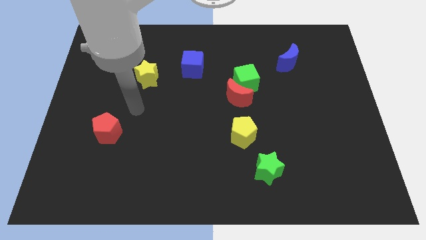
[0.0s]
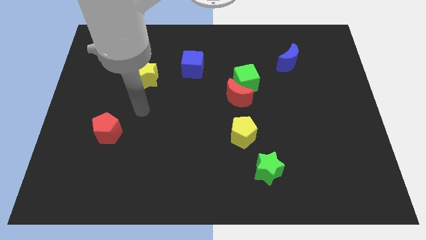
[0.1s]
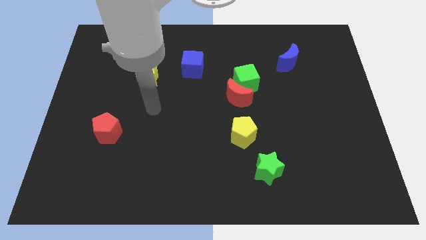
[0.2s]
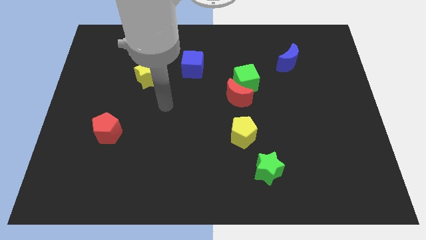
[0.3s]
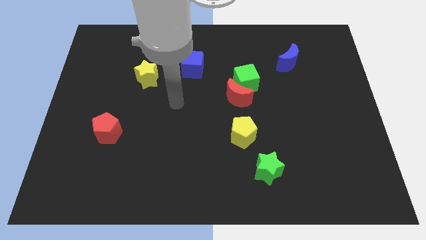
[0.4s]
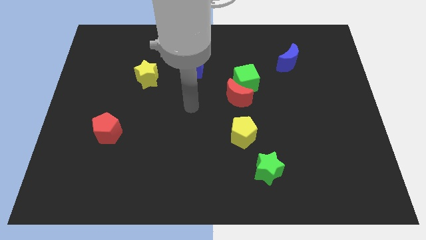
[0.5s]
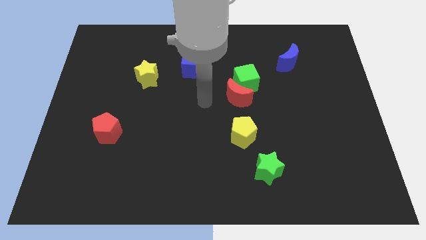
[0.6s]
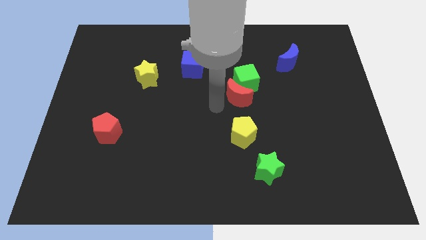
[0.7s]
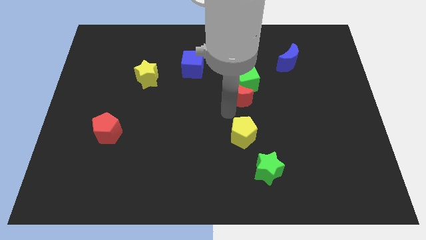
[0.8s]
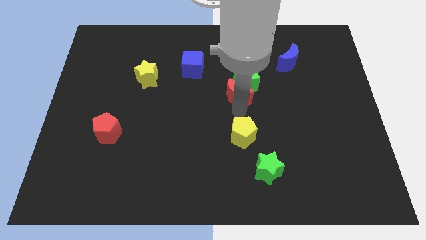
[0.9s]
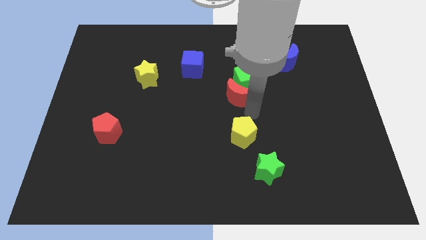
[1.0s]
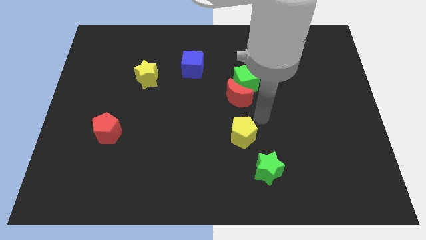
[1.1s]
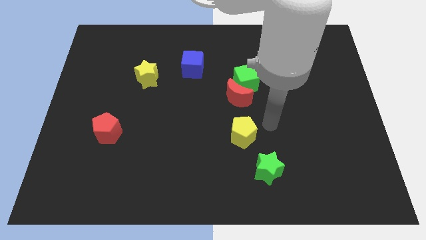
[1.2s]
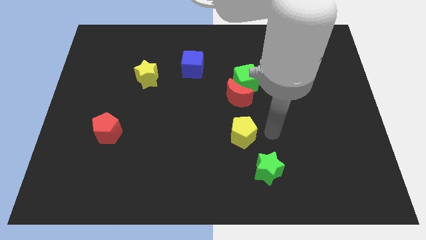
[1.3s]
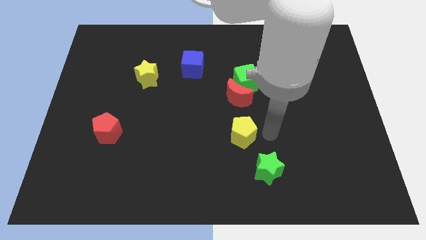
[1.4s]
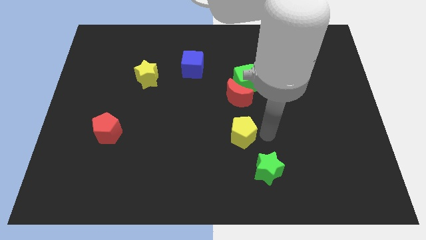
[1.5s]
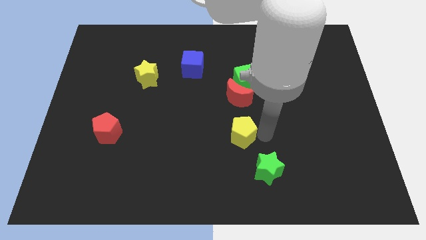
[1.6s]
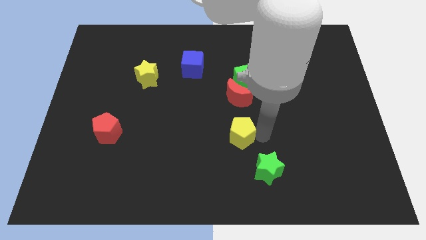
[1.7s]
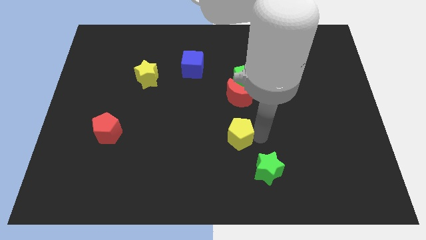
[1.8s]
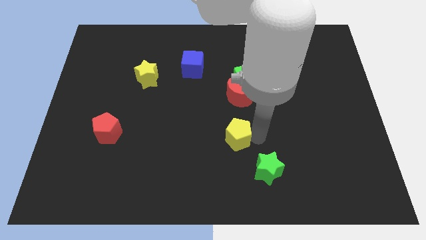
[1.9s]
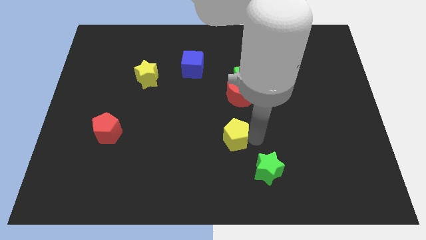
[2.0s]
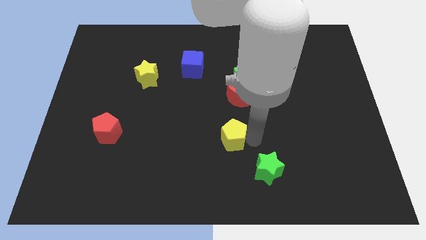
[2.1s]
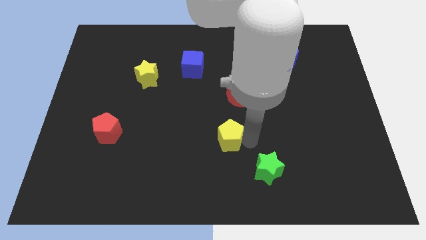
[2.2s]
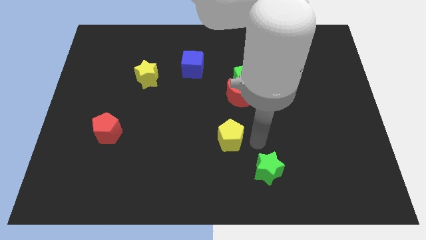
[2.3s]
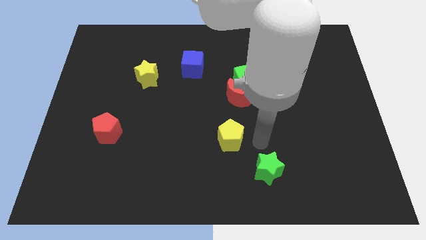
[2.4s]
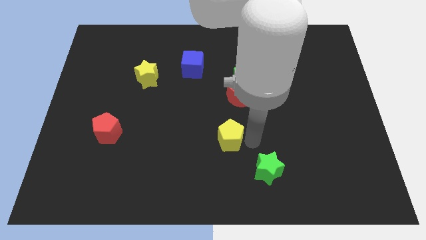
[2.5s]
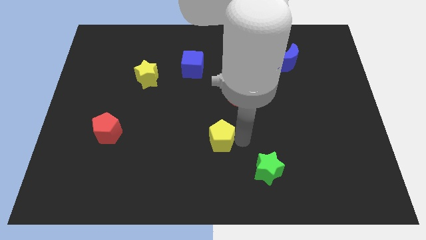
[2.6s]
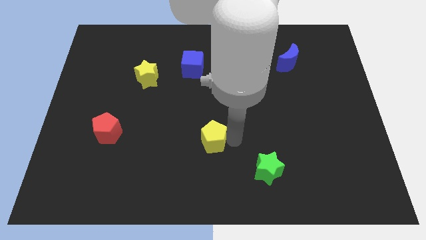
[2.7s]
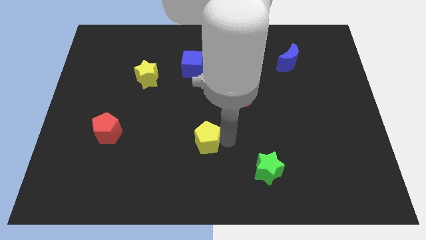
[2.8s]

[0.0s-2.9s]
slightly move the yellow pentagon left

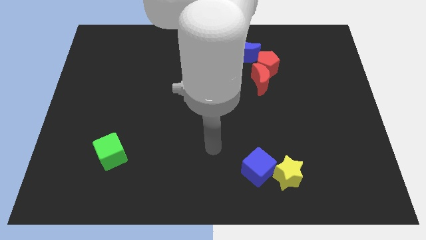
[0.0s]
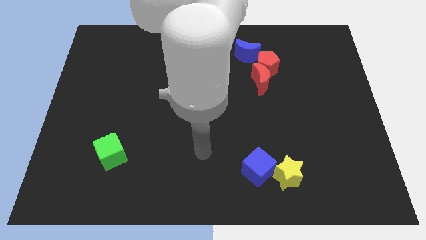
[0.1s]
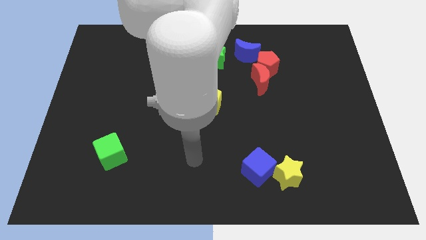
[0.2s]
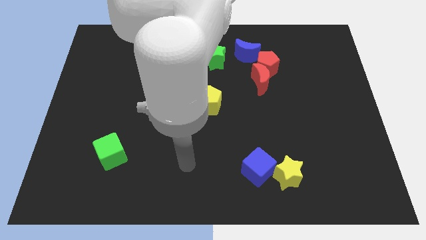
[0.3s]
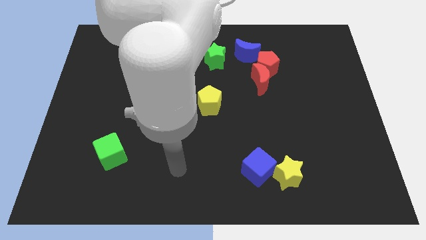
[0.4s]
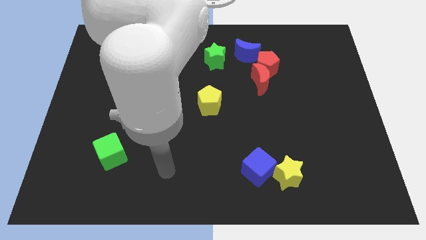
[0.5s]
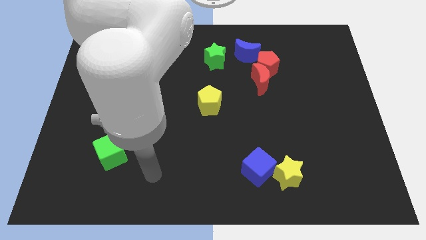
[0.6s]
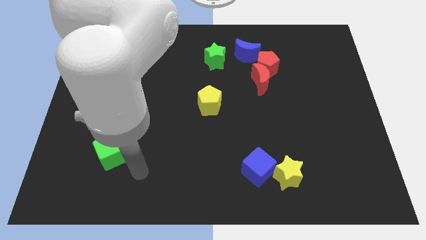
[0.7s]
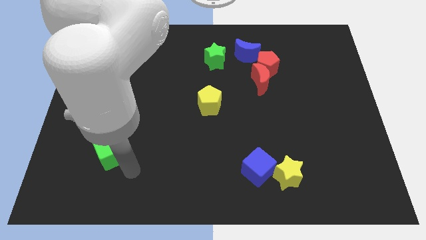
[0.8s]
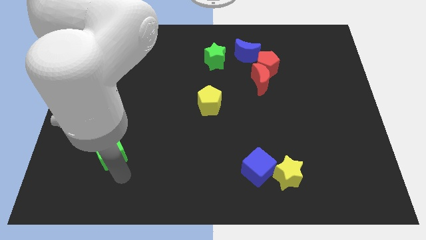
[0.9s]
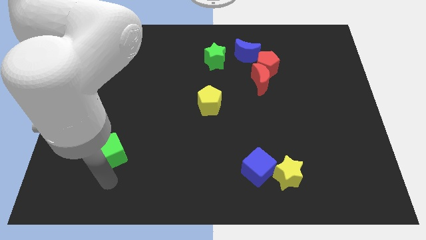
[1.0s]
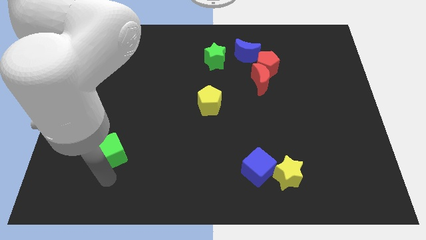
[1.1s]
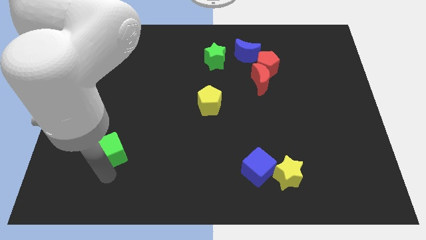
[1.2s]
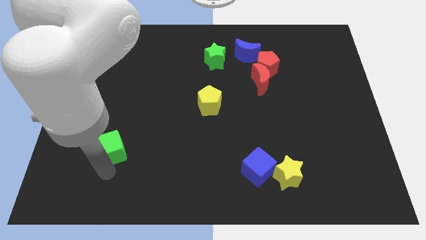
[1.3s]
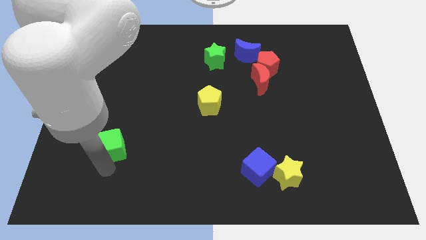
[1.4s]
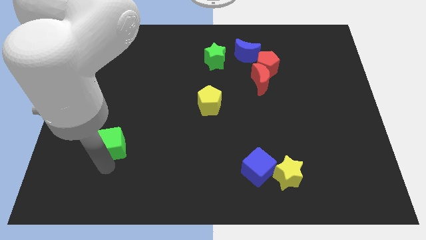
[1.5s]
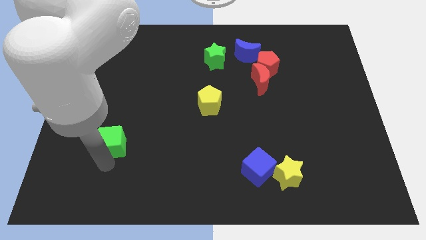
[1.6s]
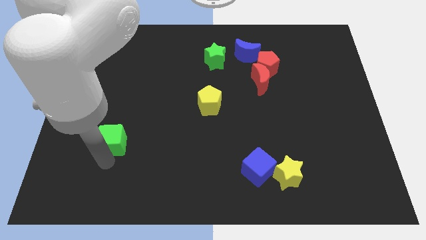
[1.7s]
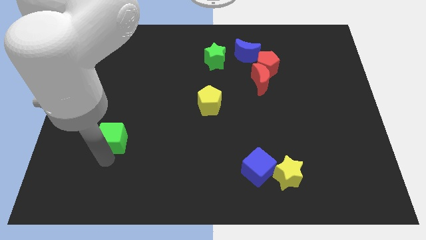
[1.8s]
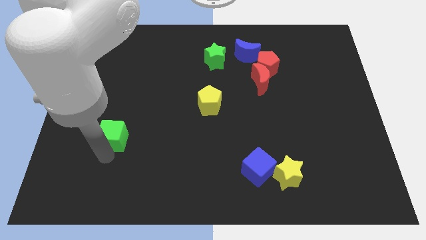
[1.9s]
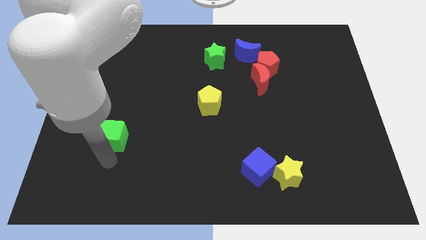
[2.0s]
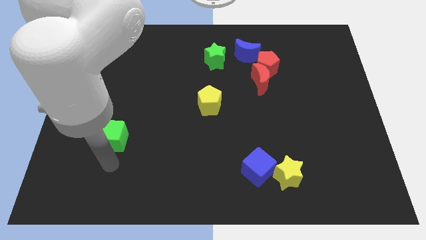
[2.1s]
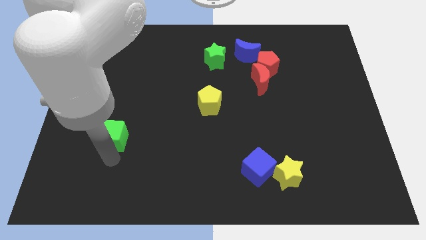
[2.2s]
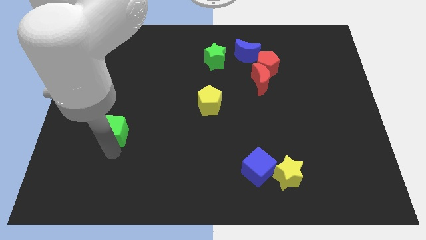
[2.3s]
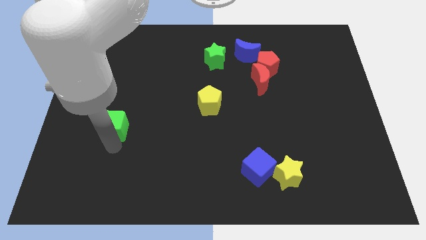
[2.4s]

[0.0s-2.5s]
slide the green cube upwards a little bit

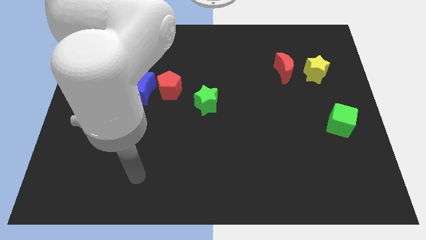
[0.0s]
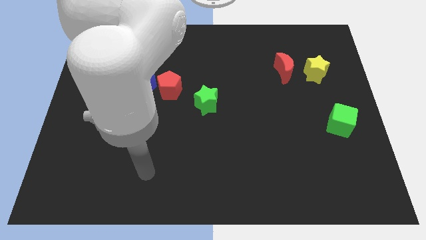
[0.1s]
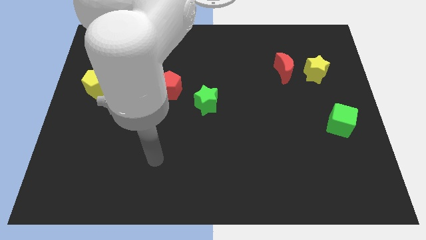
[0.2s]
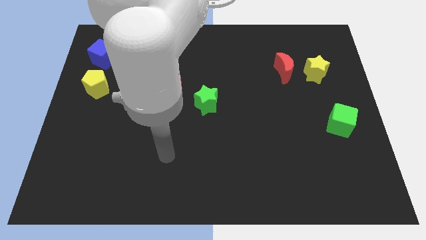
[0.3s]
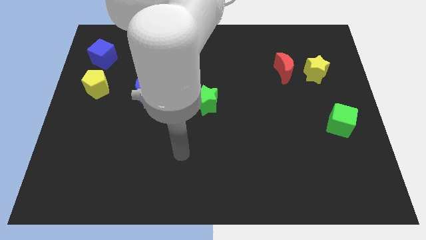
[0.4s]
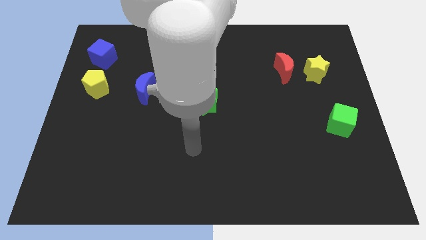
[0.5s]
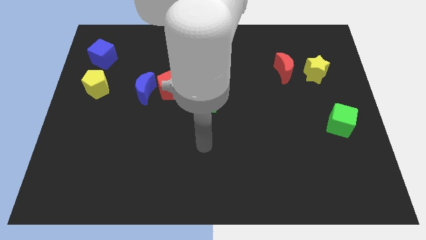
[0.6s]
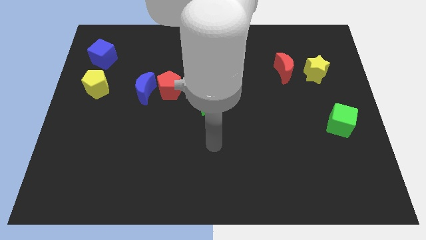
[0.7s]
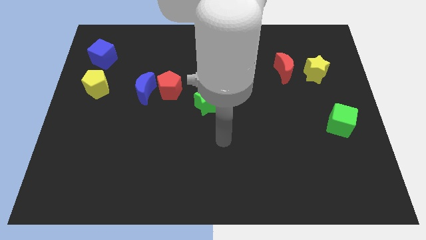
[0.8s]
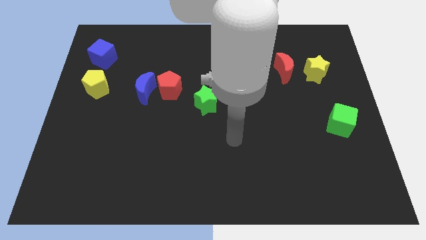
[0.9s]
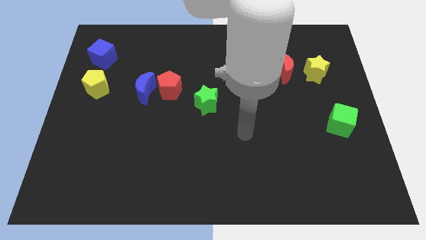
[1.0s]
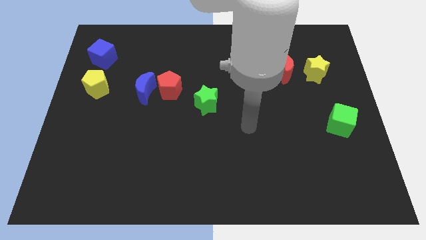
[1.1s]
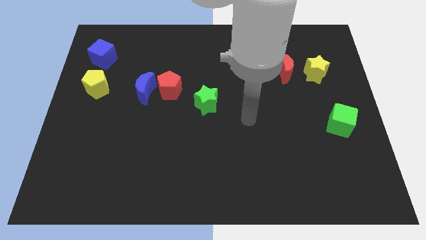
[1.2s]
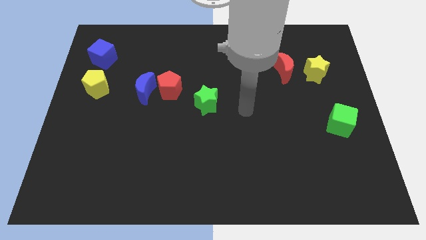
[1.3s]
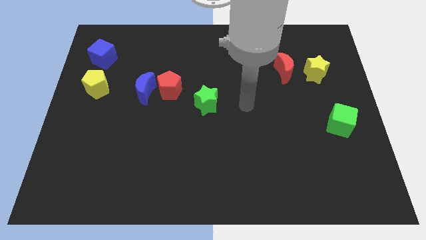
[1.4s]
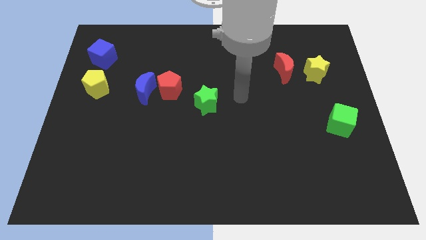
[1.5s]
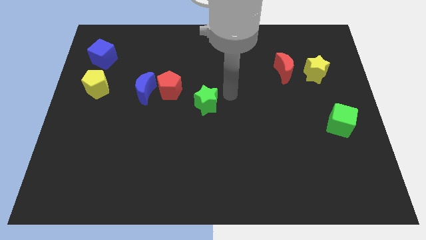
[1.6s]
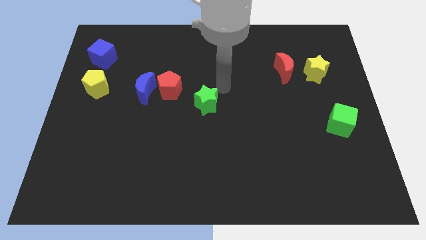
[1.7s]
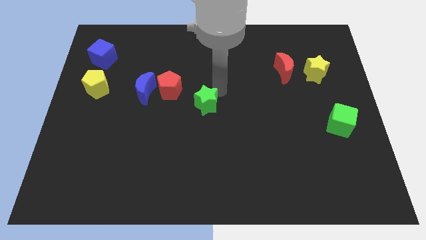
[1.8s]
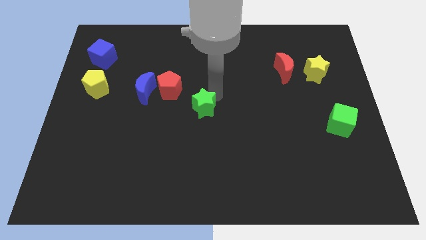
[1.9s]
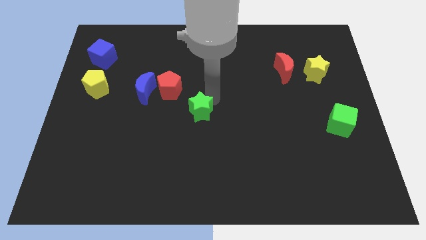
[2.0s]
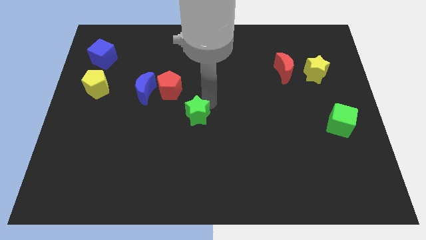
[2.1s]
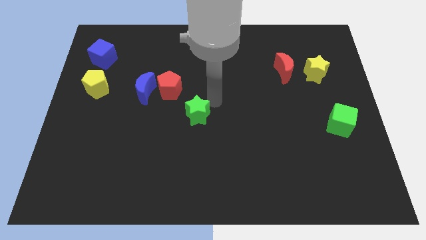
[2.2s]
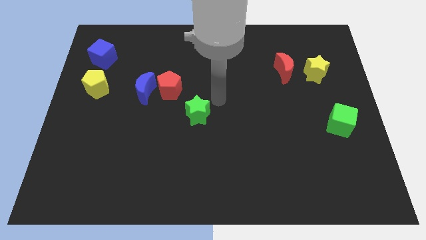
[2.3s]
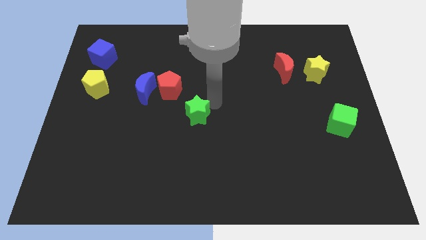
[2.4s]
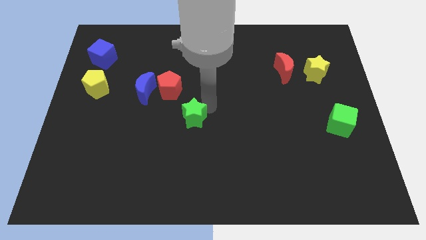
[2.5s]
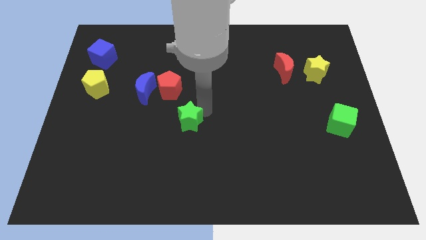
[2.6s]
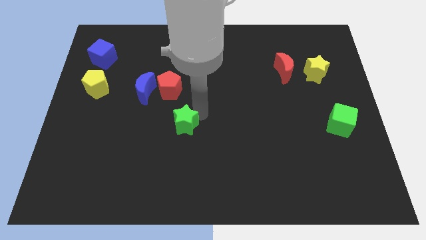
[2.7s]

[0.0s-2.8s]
slightly move the green star down and then left

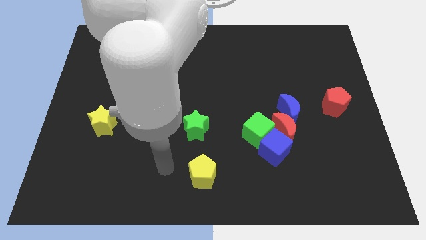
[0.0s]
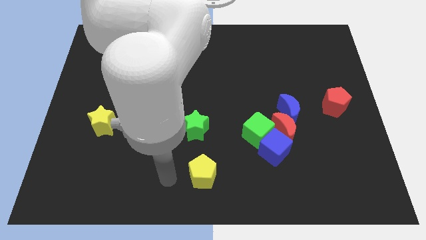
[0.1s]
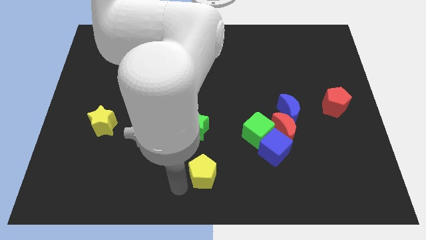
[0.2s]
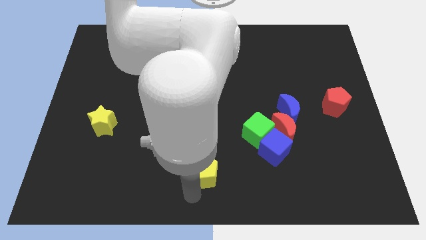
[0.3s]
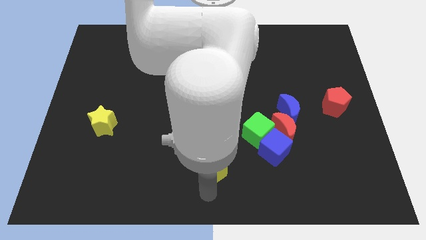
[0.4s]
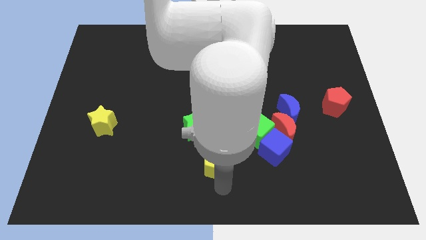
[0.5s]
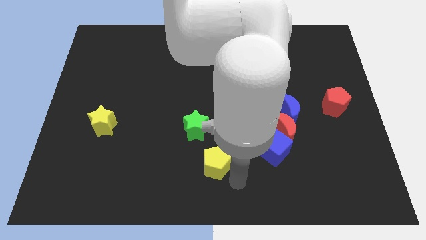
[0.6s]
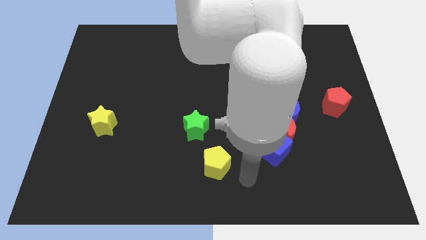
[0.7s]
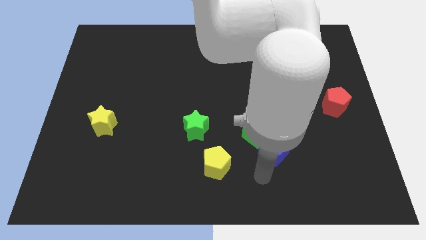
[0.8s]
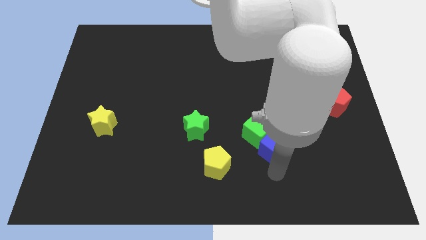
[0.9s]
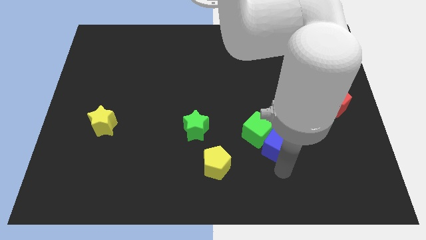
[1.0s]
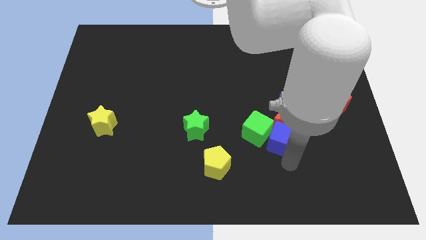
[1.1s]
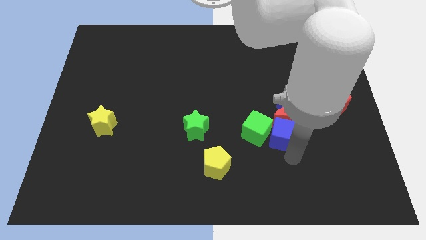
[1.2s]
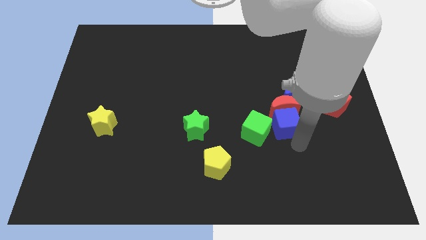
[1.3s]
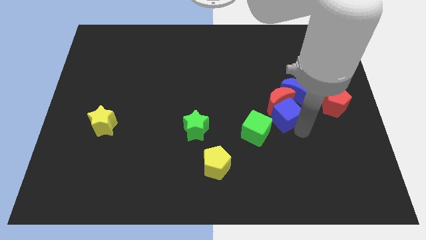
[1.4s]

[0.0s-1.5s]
push the blue cube a little bit upwards
